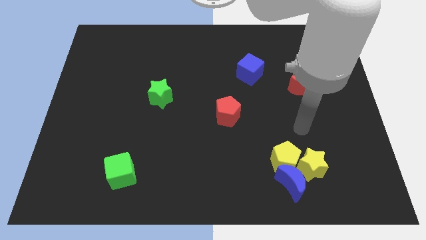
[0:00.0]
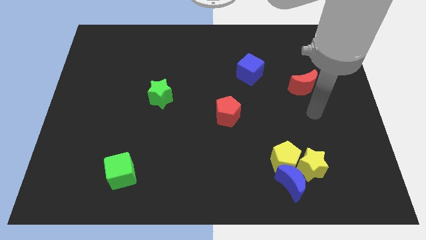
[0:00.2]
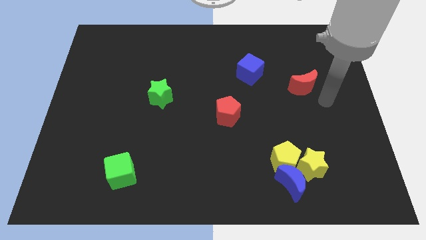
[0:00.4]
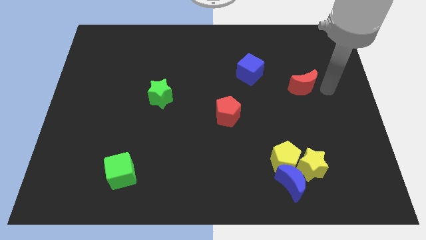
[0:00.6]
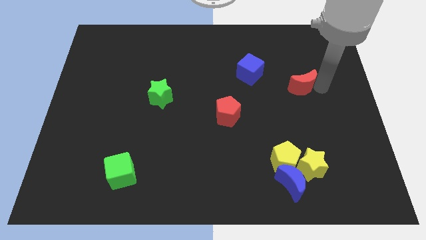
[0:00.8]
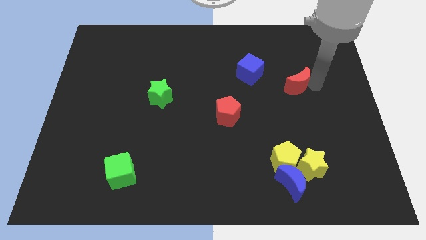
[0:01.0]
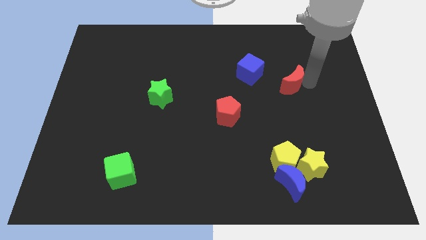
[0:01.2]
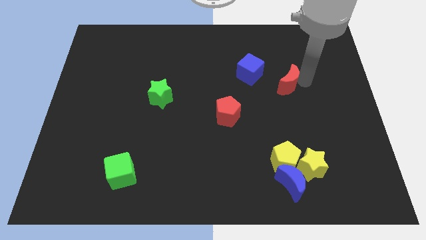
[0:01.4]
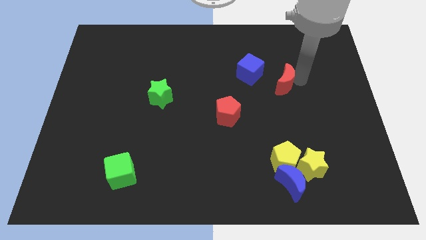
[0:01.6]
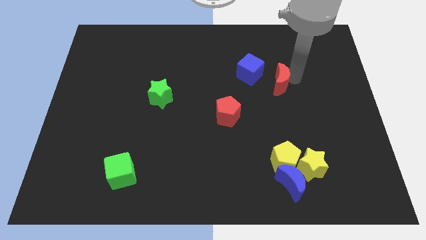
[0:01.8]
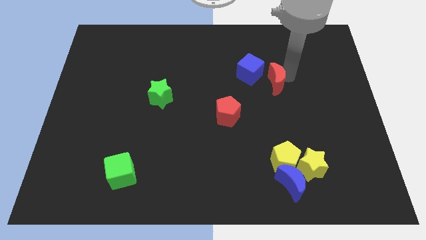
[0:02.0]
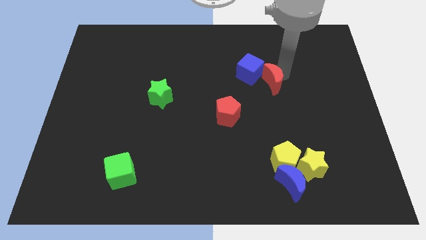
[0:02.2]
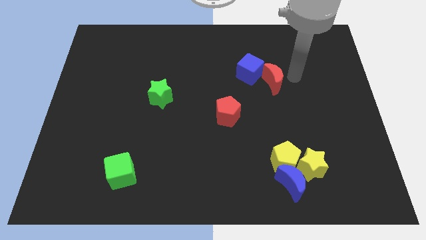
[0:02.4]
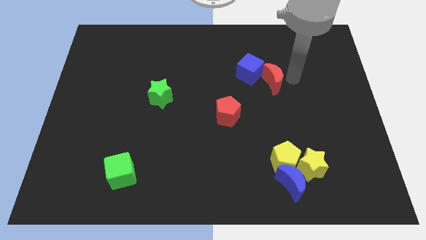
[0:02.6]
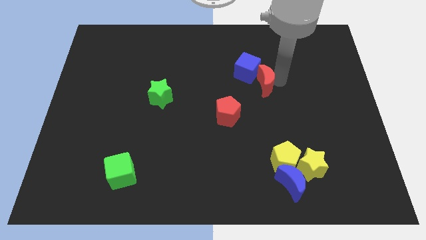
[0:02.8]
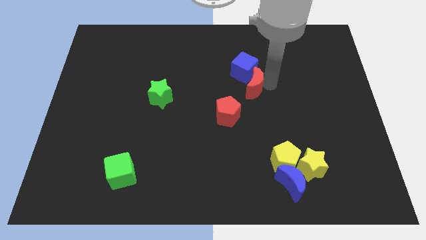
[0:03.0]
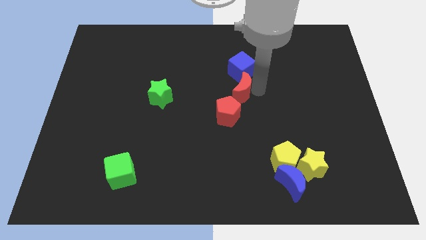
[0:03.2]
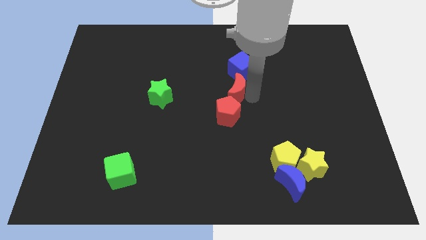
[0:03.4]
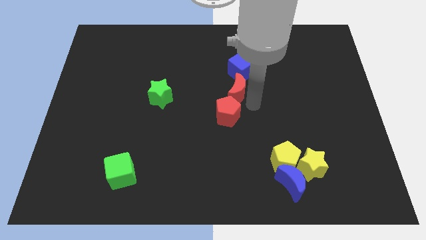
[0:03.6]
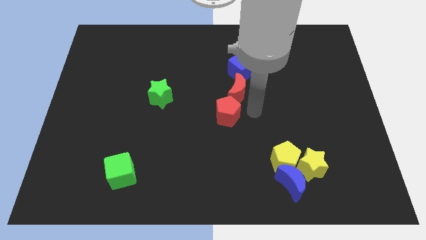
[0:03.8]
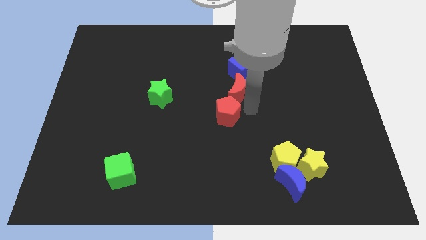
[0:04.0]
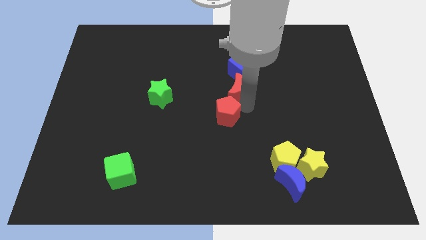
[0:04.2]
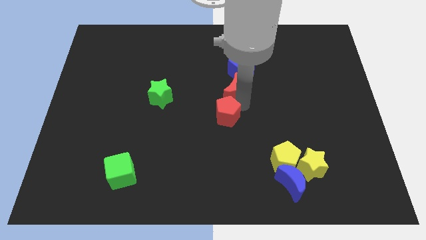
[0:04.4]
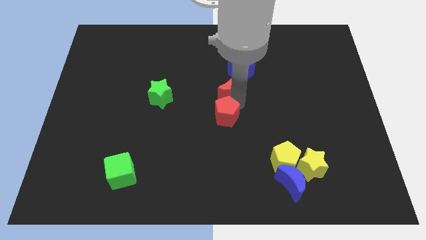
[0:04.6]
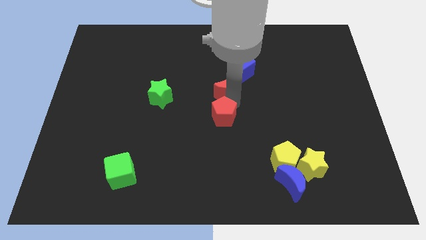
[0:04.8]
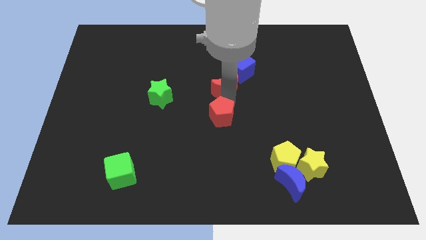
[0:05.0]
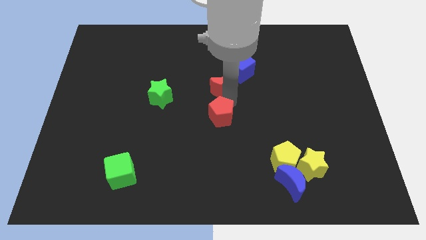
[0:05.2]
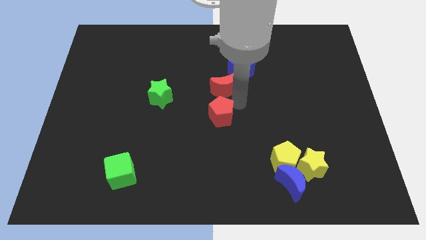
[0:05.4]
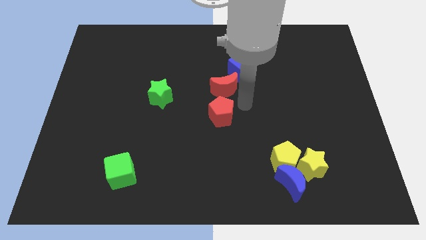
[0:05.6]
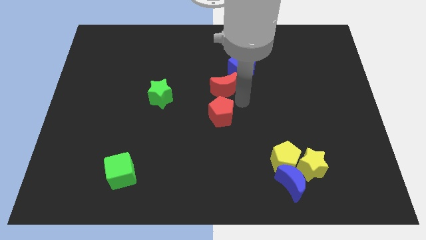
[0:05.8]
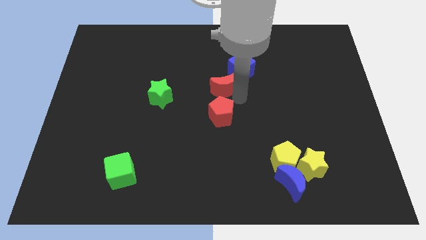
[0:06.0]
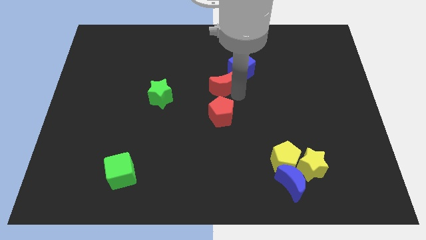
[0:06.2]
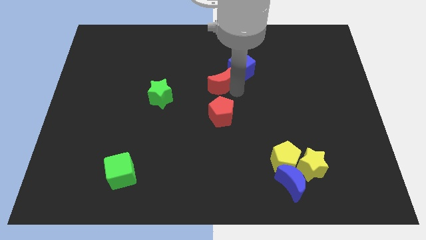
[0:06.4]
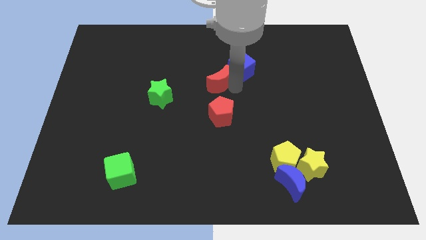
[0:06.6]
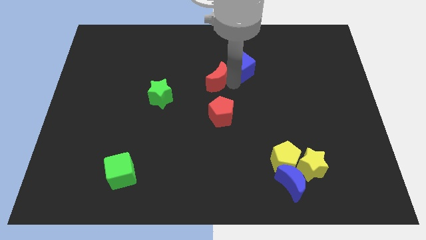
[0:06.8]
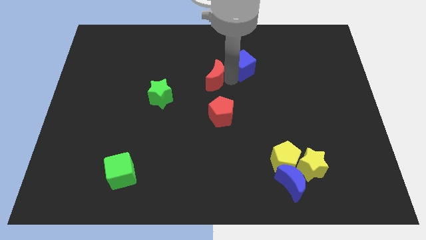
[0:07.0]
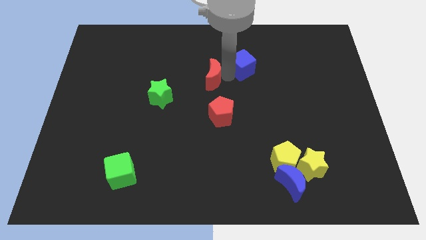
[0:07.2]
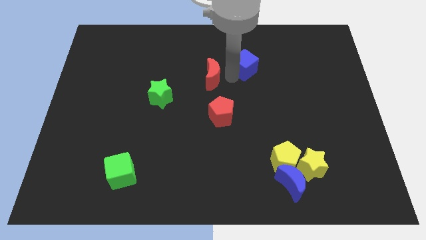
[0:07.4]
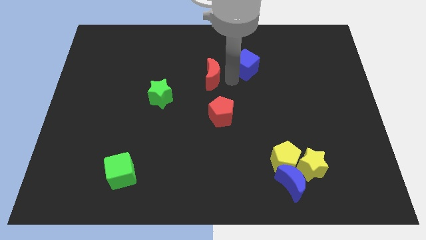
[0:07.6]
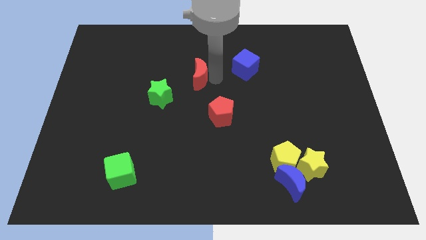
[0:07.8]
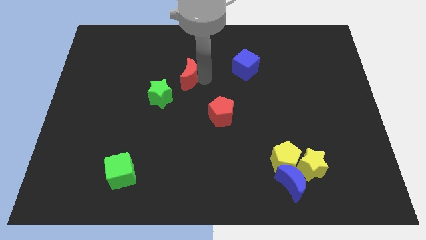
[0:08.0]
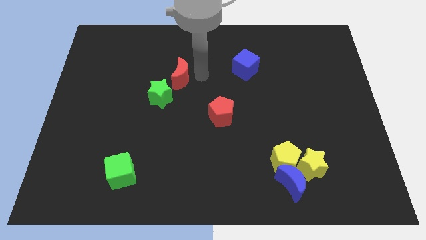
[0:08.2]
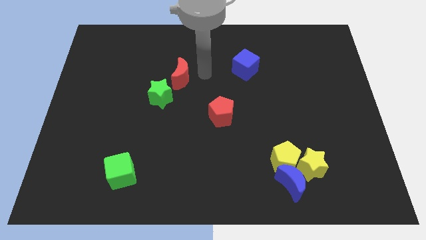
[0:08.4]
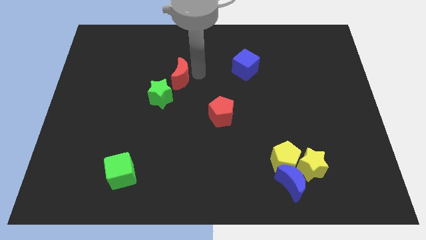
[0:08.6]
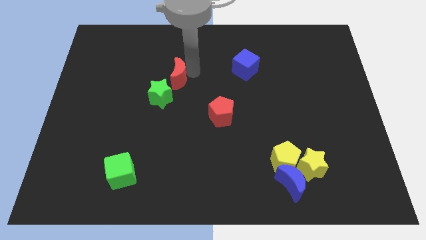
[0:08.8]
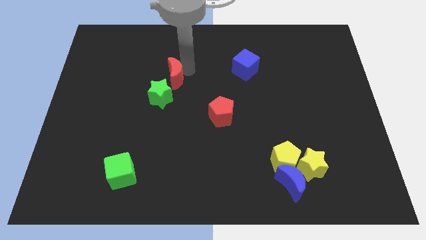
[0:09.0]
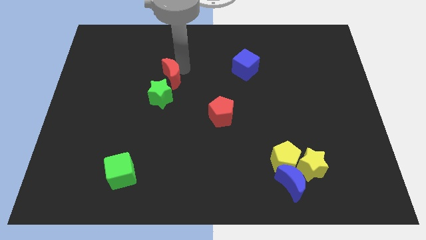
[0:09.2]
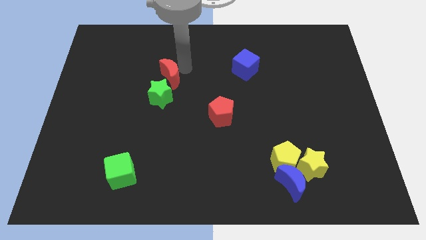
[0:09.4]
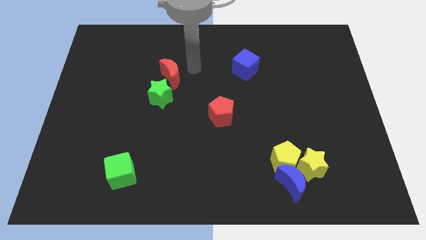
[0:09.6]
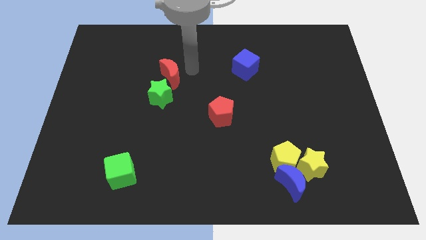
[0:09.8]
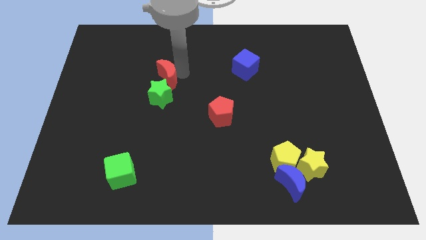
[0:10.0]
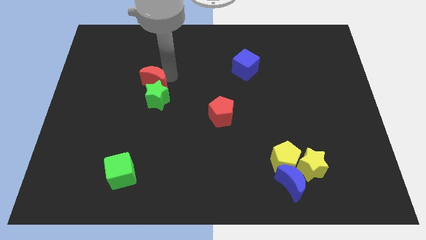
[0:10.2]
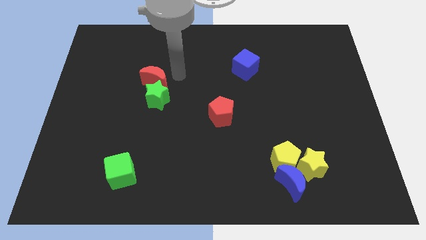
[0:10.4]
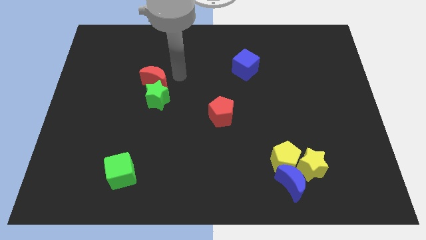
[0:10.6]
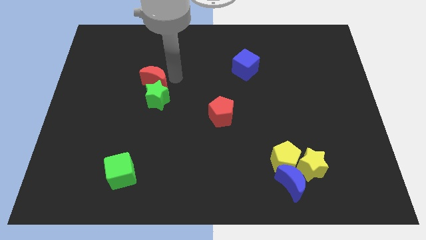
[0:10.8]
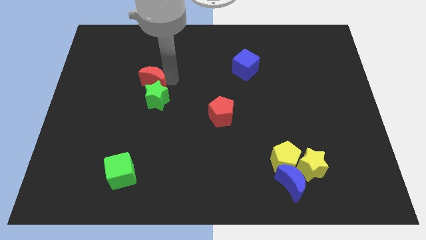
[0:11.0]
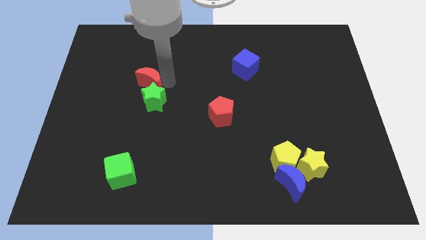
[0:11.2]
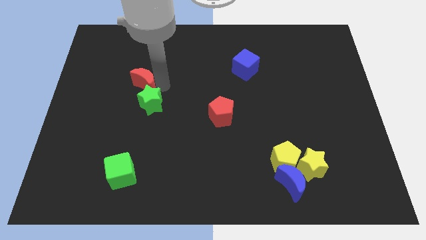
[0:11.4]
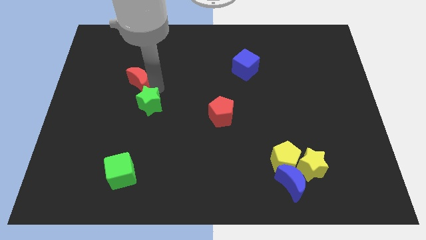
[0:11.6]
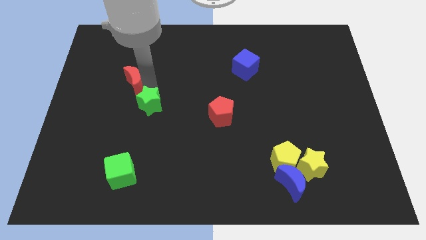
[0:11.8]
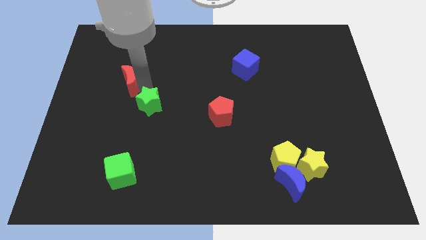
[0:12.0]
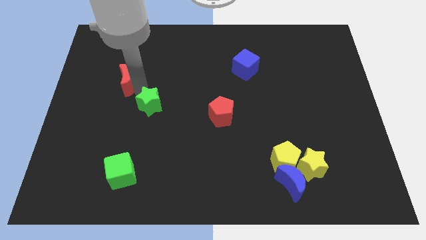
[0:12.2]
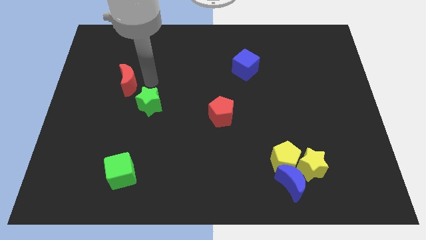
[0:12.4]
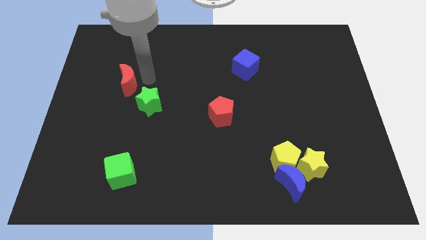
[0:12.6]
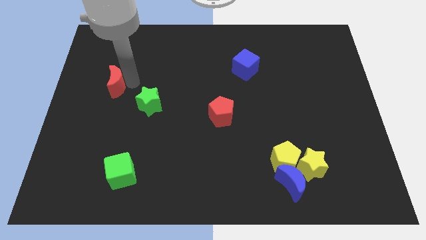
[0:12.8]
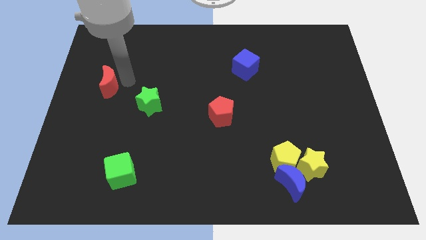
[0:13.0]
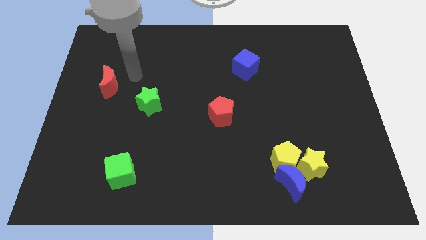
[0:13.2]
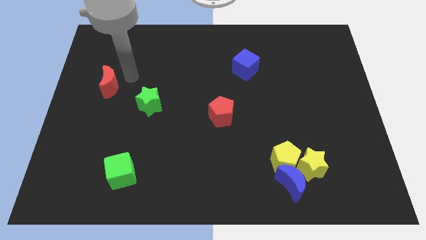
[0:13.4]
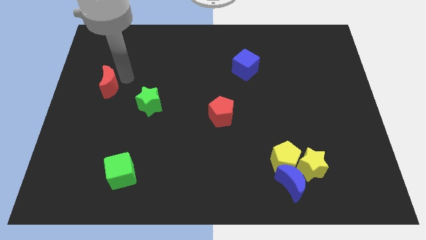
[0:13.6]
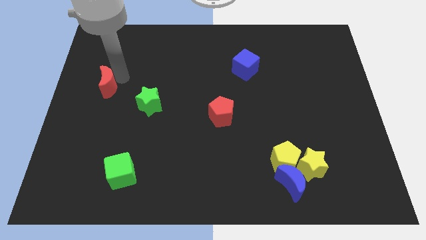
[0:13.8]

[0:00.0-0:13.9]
slide the red moon to the center left
